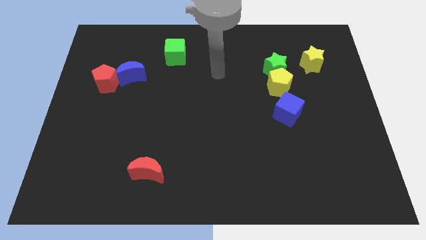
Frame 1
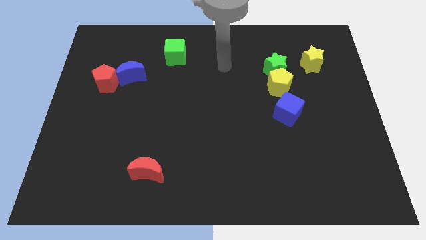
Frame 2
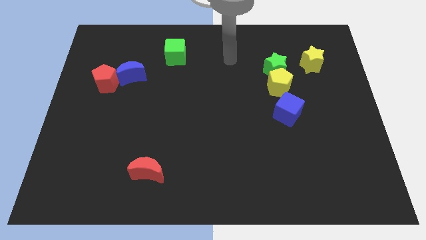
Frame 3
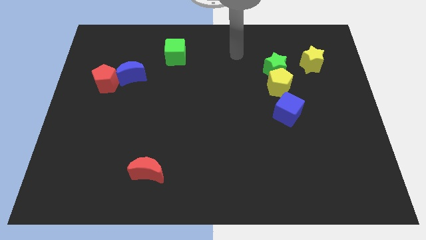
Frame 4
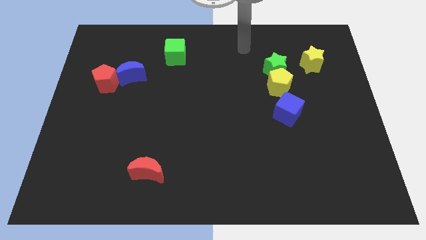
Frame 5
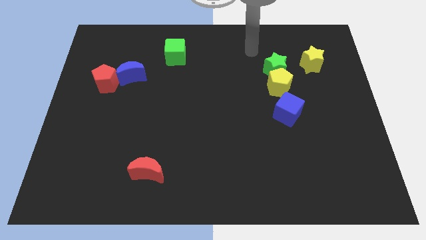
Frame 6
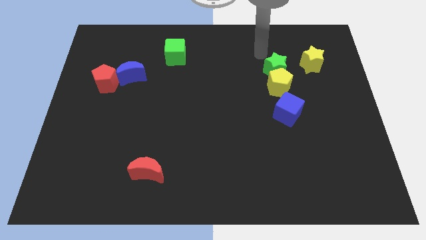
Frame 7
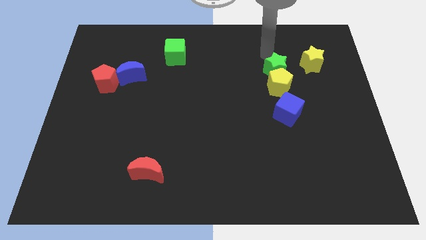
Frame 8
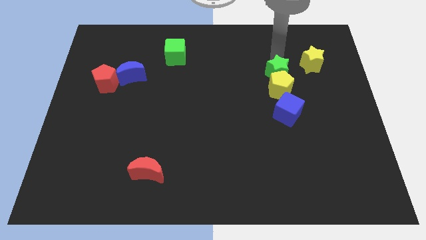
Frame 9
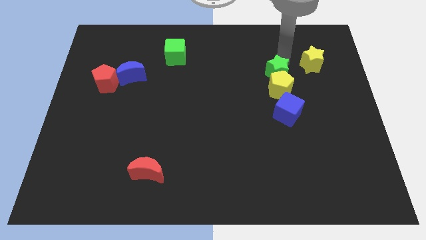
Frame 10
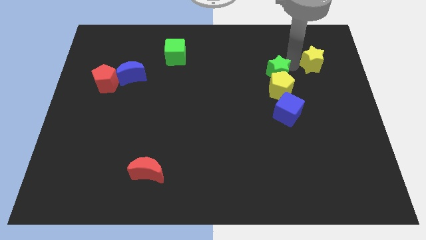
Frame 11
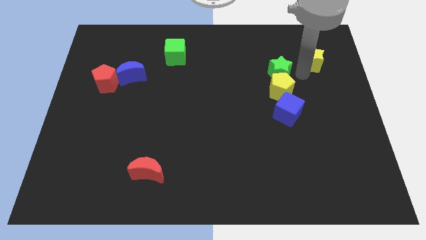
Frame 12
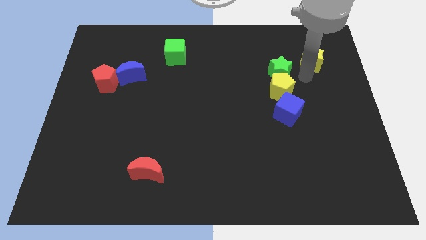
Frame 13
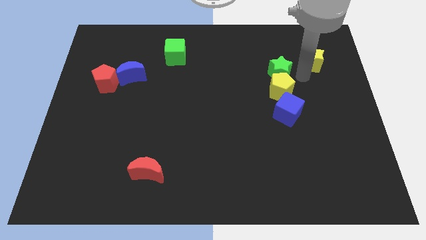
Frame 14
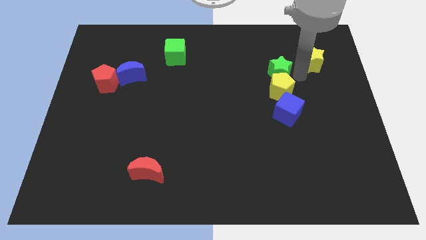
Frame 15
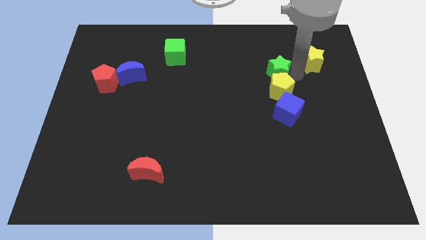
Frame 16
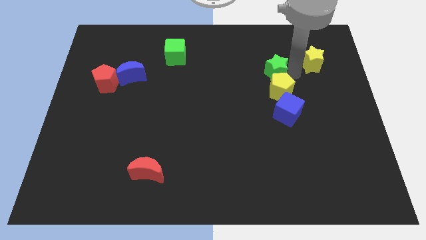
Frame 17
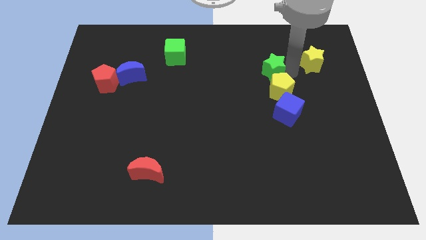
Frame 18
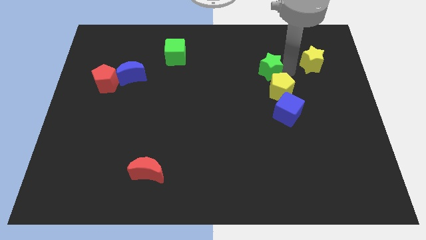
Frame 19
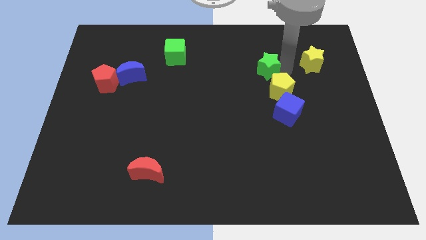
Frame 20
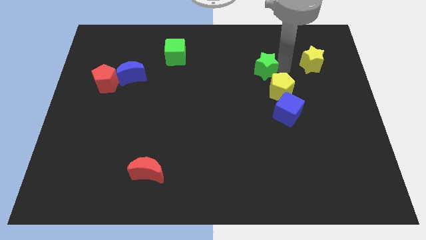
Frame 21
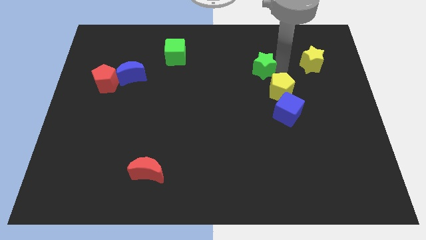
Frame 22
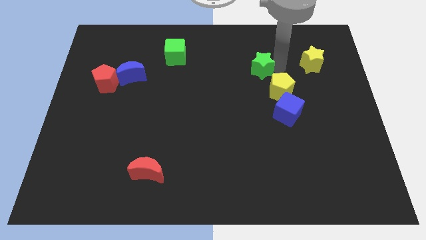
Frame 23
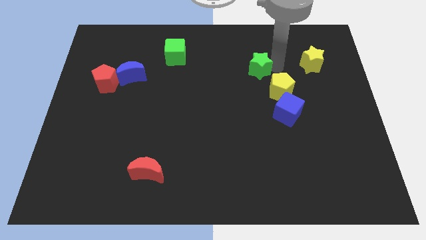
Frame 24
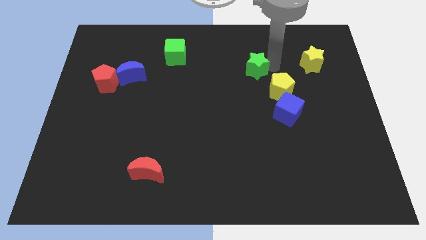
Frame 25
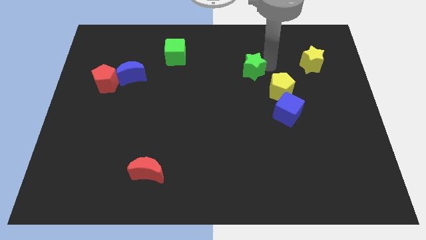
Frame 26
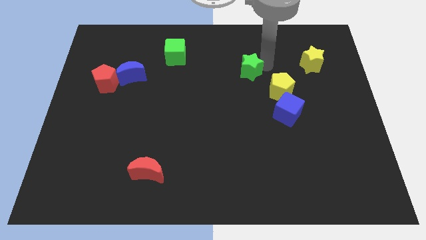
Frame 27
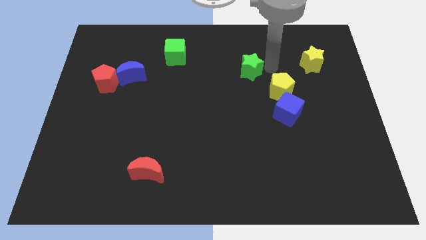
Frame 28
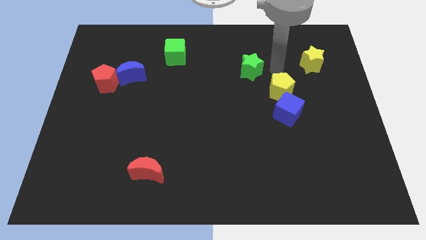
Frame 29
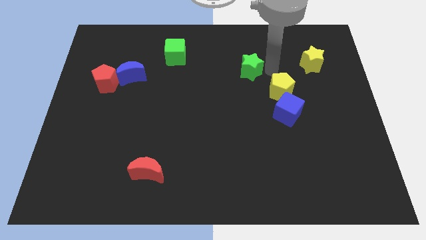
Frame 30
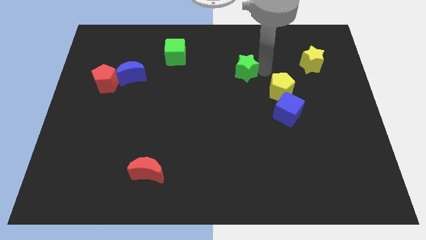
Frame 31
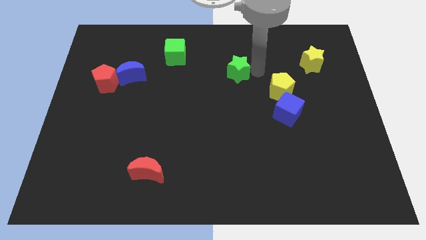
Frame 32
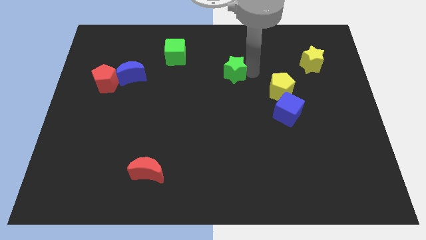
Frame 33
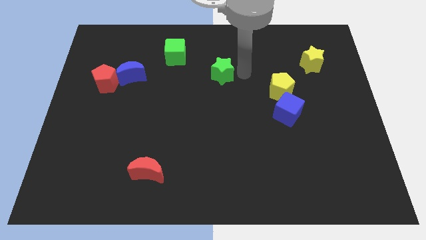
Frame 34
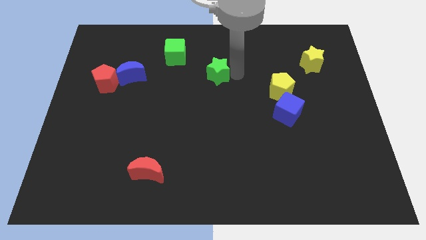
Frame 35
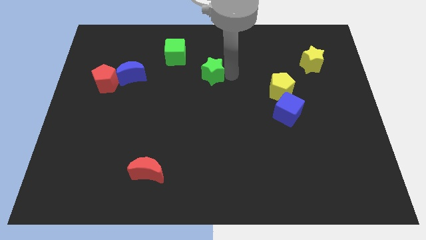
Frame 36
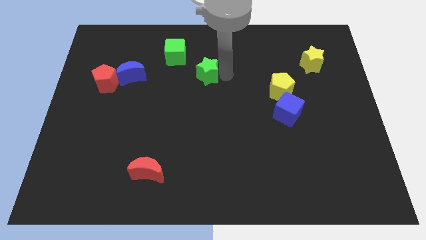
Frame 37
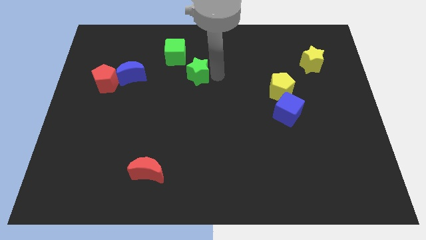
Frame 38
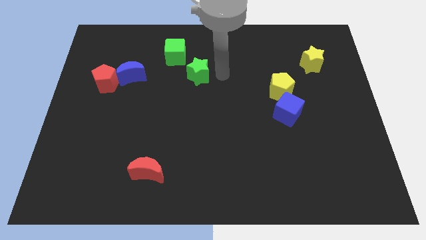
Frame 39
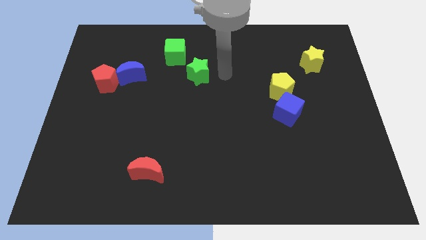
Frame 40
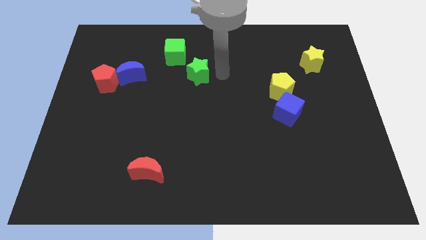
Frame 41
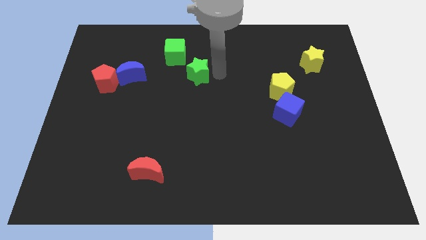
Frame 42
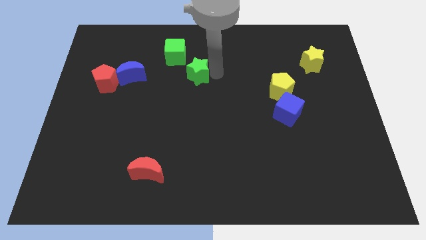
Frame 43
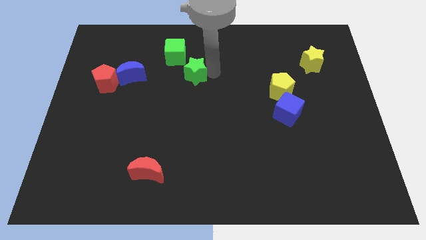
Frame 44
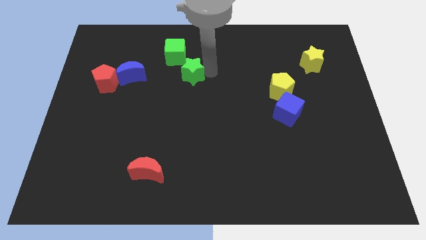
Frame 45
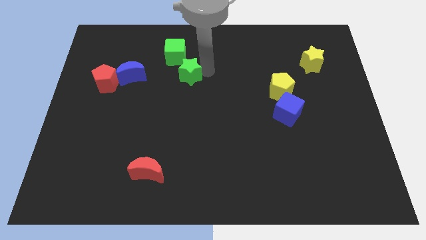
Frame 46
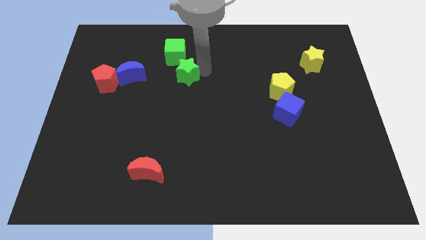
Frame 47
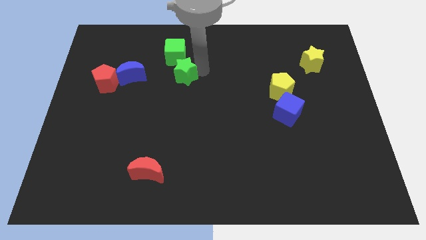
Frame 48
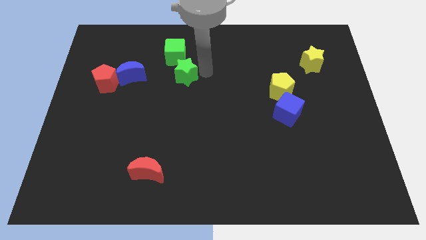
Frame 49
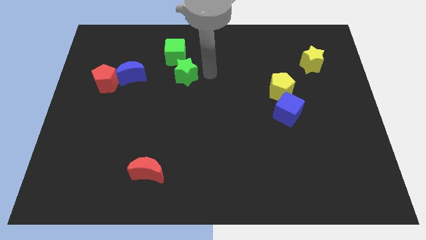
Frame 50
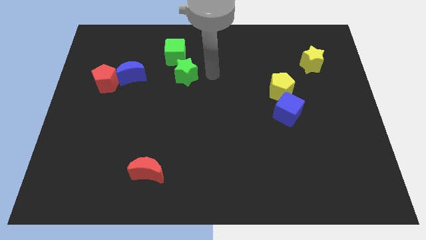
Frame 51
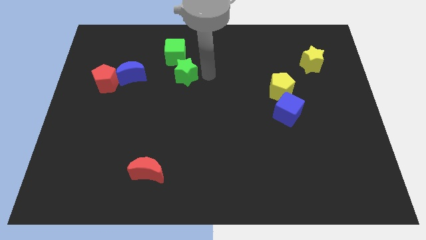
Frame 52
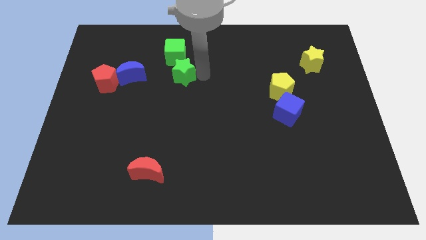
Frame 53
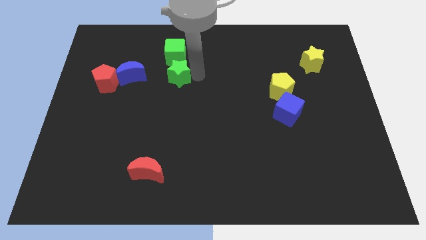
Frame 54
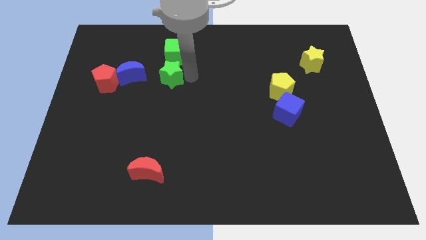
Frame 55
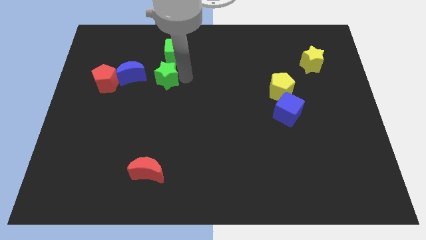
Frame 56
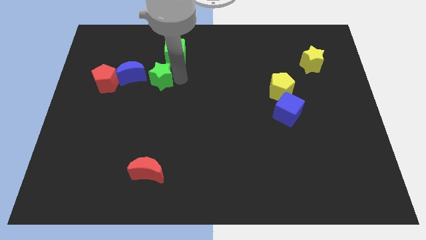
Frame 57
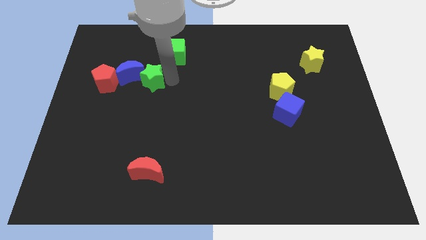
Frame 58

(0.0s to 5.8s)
put the green star to the blue moon

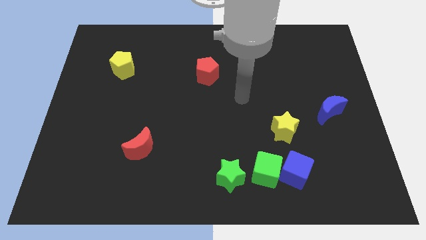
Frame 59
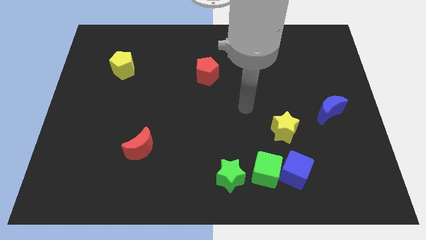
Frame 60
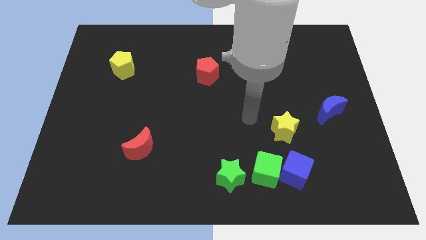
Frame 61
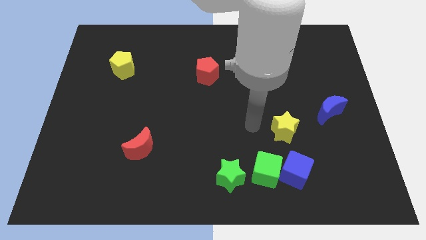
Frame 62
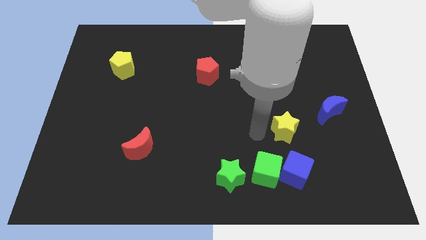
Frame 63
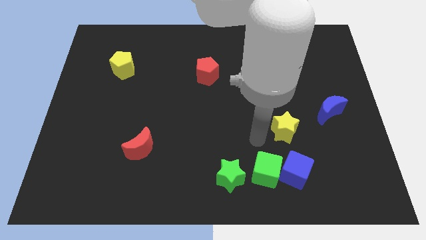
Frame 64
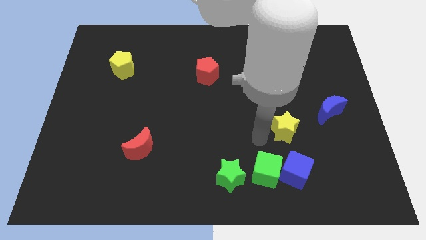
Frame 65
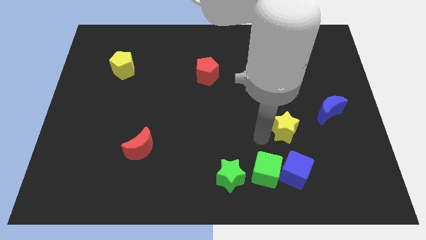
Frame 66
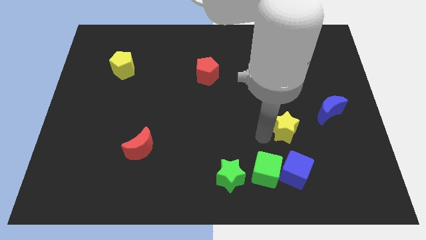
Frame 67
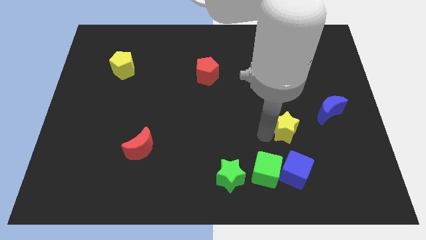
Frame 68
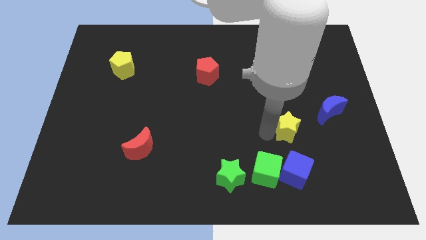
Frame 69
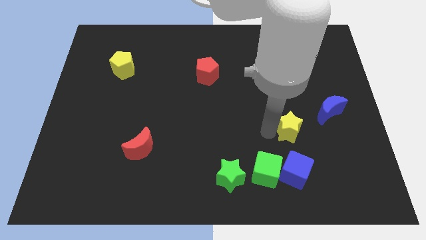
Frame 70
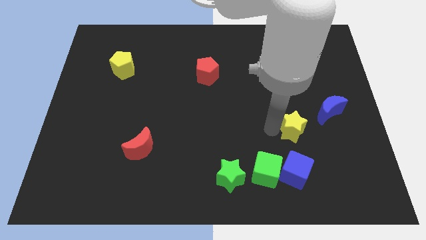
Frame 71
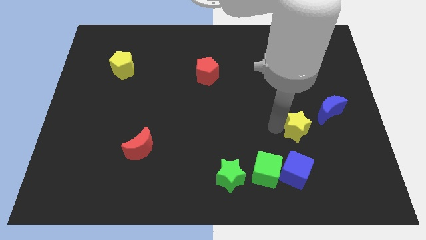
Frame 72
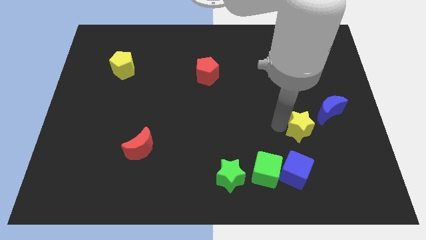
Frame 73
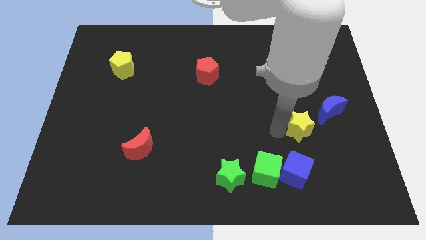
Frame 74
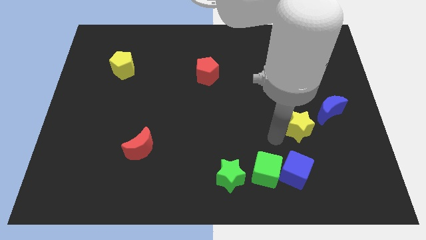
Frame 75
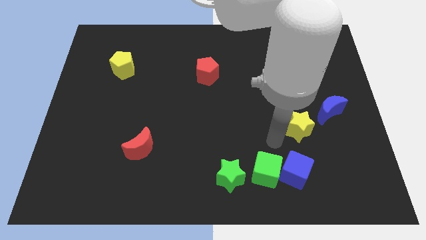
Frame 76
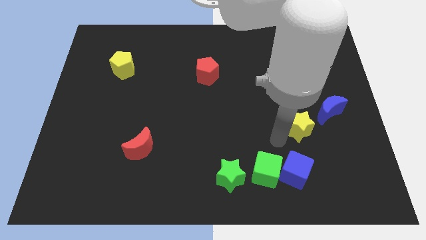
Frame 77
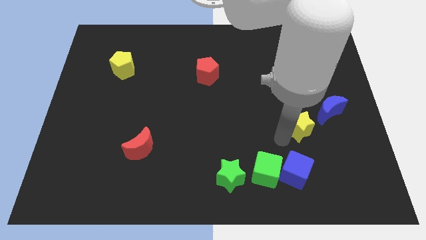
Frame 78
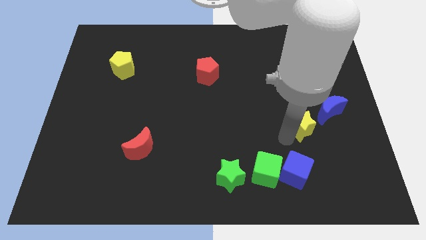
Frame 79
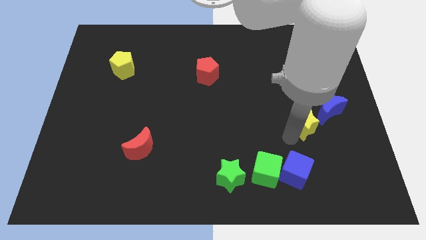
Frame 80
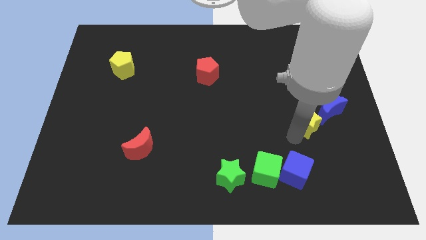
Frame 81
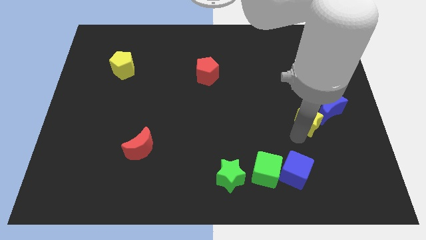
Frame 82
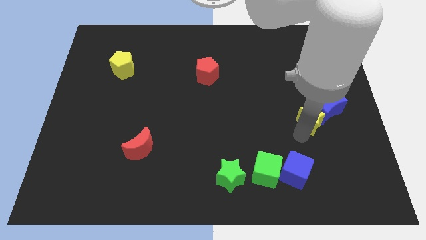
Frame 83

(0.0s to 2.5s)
slide the yellow star close to the blue moon
